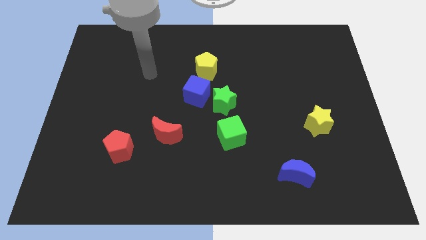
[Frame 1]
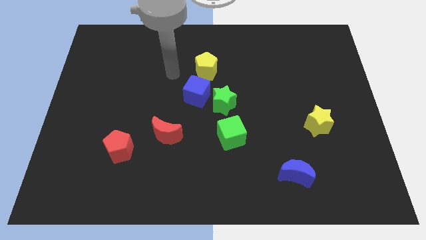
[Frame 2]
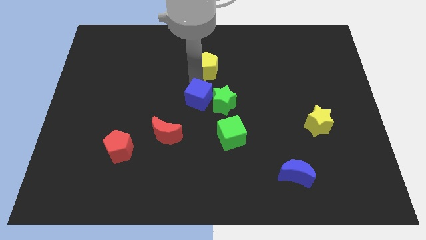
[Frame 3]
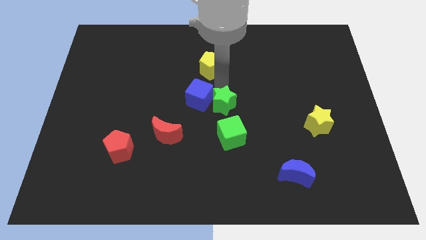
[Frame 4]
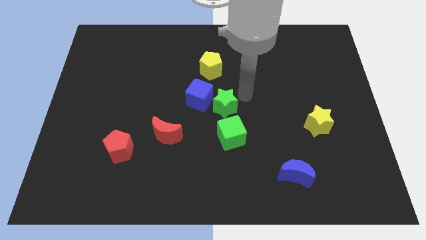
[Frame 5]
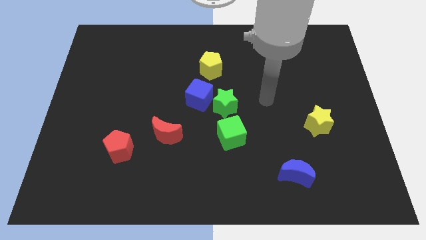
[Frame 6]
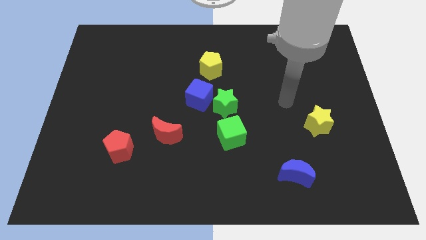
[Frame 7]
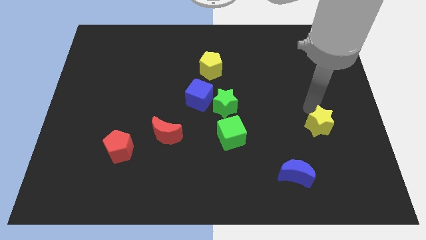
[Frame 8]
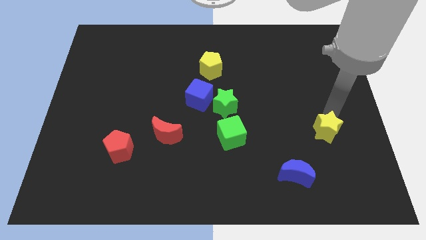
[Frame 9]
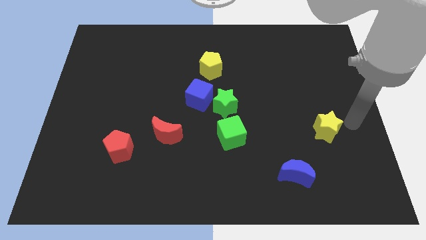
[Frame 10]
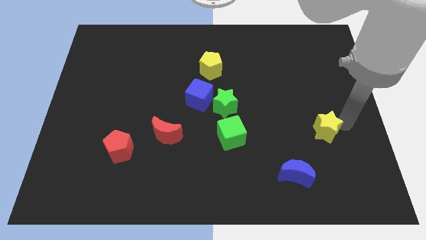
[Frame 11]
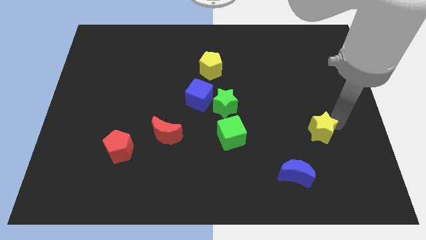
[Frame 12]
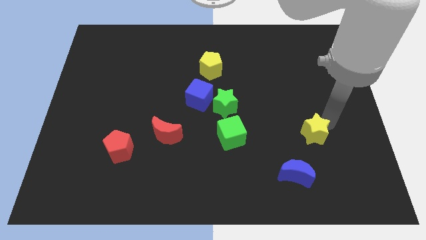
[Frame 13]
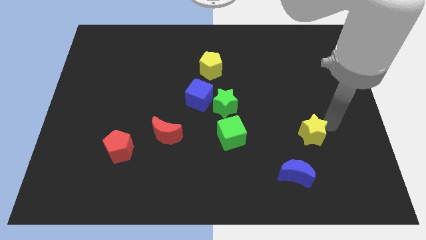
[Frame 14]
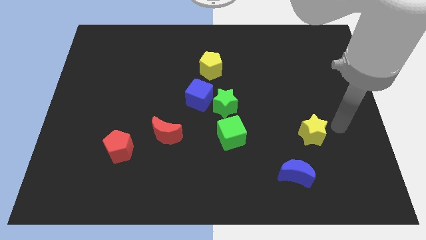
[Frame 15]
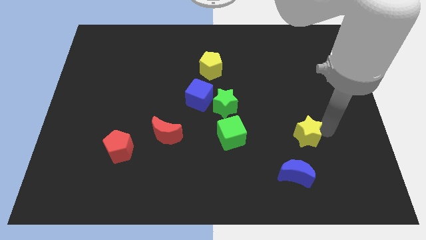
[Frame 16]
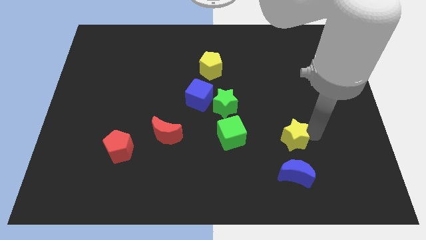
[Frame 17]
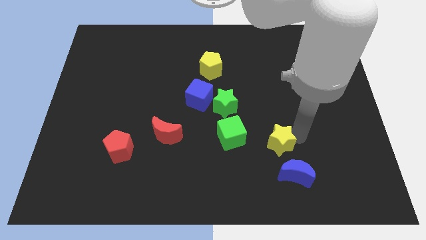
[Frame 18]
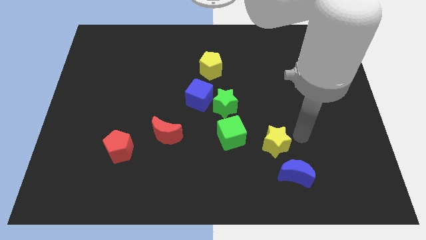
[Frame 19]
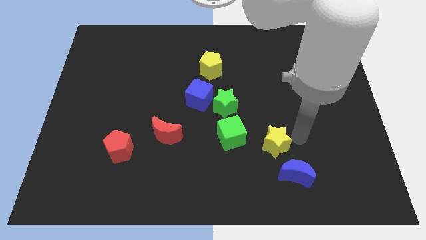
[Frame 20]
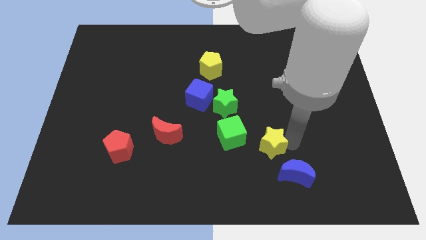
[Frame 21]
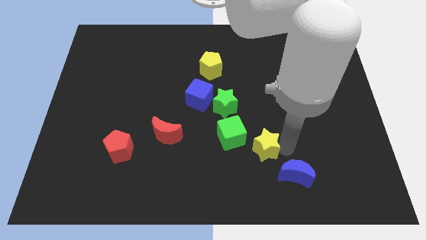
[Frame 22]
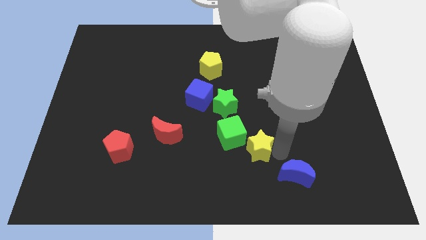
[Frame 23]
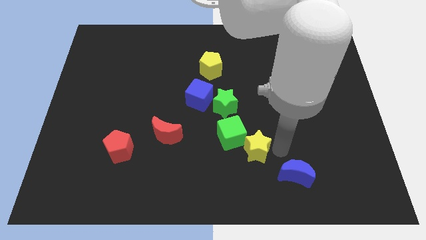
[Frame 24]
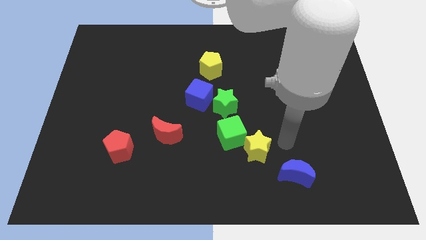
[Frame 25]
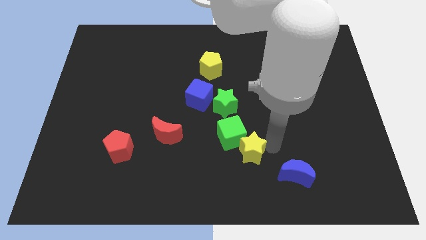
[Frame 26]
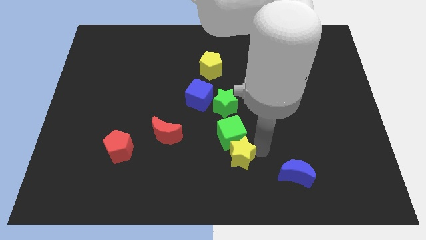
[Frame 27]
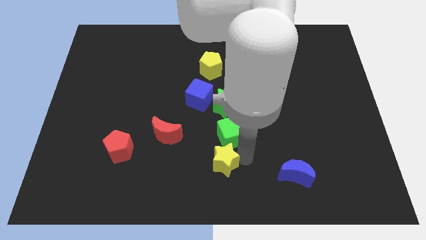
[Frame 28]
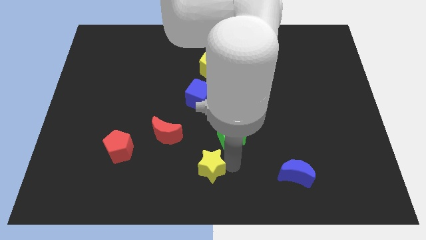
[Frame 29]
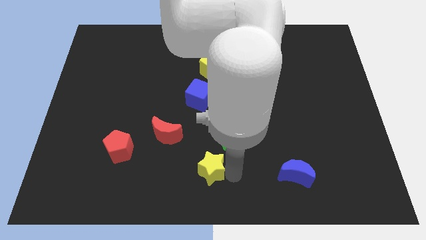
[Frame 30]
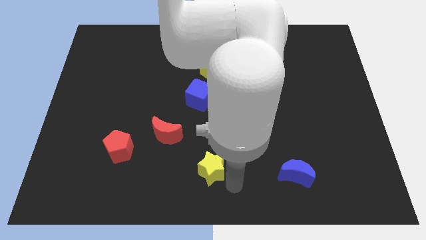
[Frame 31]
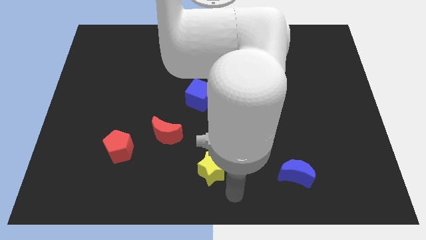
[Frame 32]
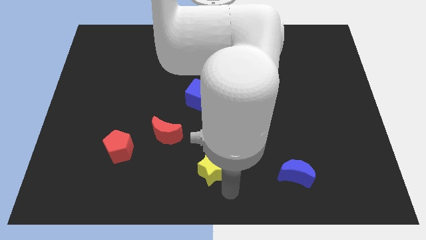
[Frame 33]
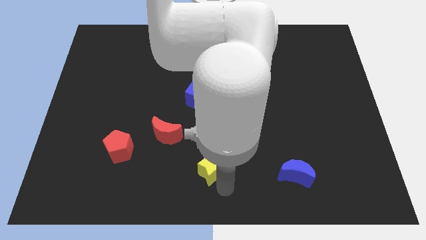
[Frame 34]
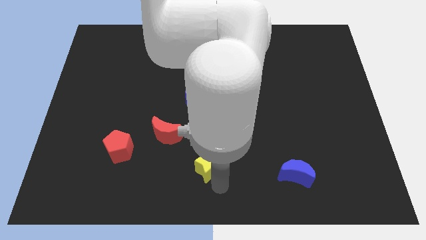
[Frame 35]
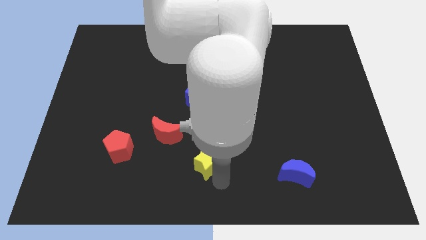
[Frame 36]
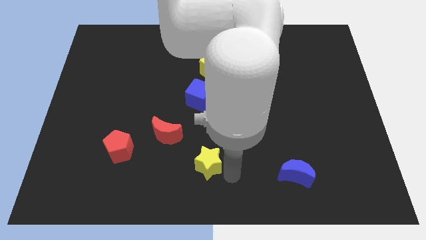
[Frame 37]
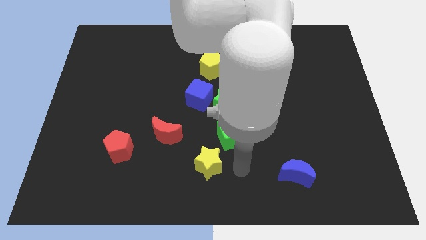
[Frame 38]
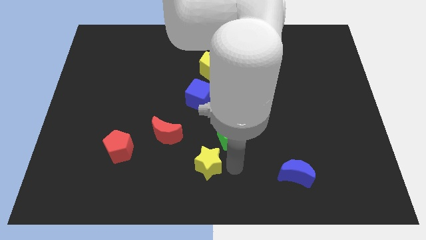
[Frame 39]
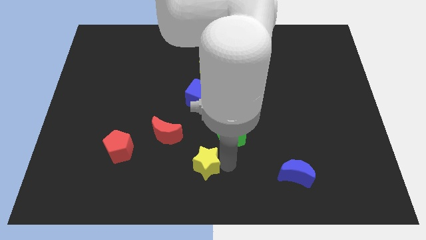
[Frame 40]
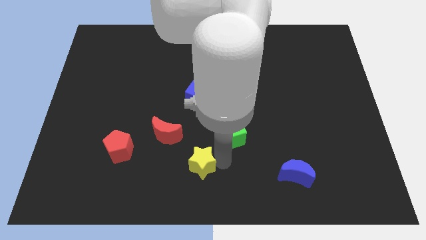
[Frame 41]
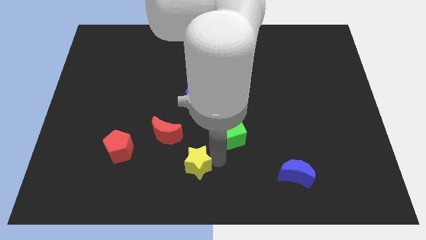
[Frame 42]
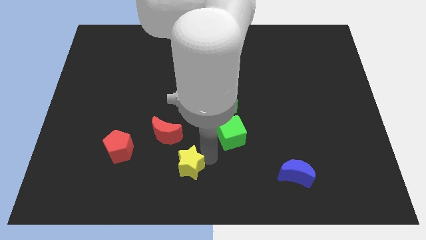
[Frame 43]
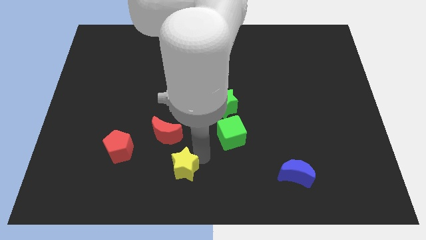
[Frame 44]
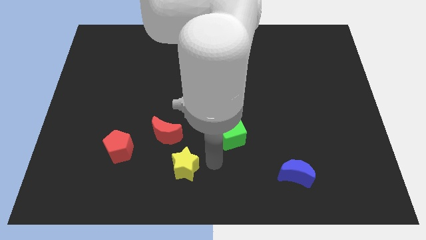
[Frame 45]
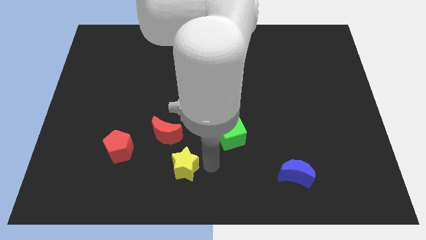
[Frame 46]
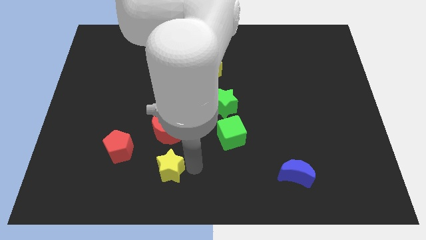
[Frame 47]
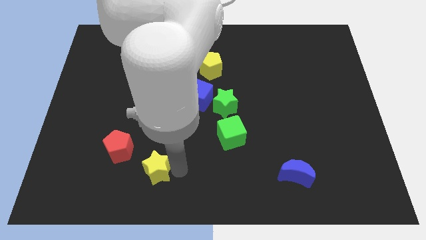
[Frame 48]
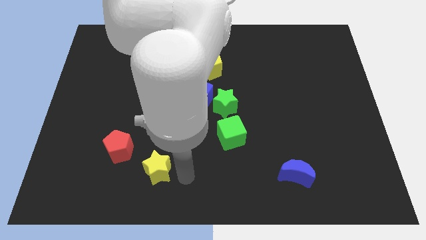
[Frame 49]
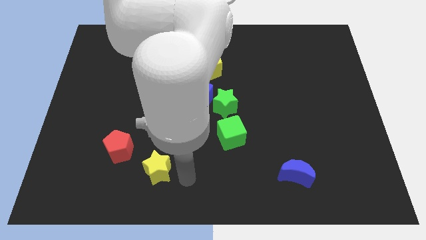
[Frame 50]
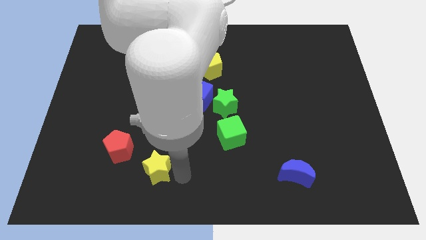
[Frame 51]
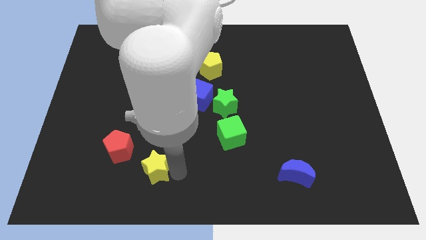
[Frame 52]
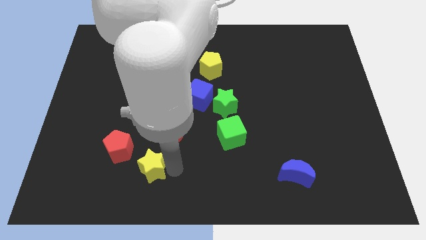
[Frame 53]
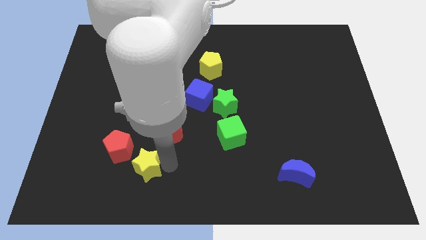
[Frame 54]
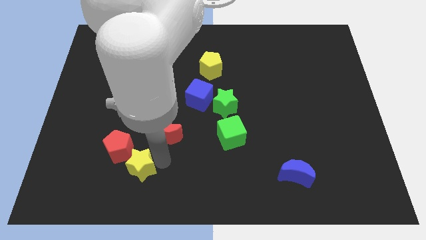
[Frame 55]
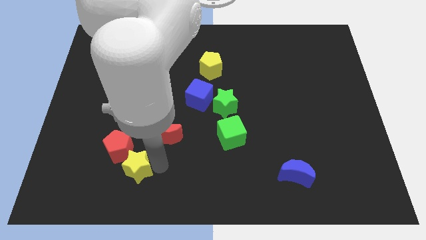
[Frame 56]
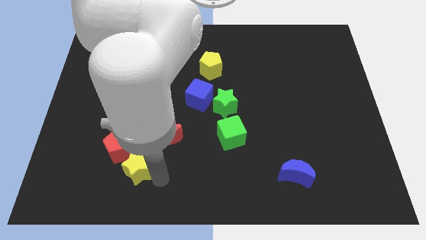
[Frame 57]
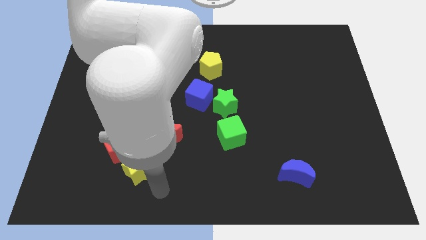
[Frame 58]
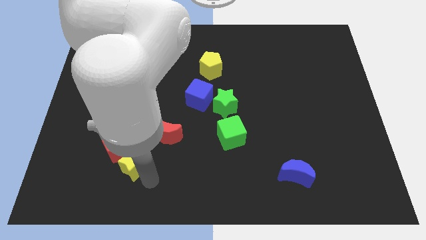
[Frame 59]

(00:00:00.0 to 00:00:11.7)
move the yellow star to the red pentagon

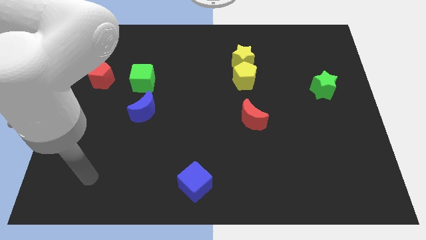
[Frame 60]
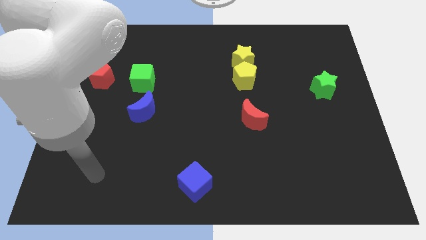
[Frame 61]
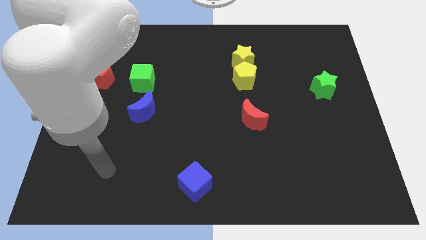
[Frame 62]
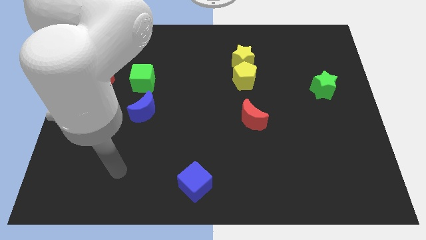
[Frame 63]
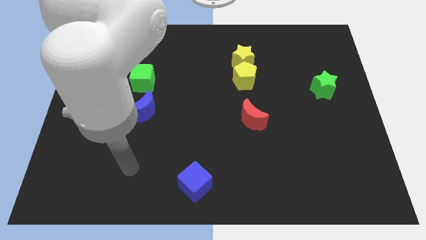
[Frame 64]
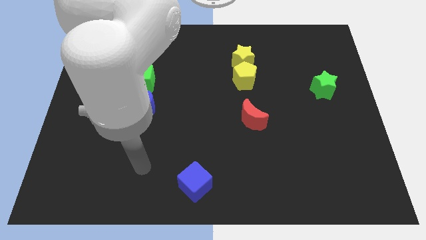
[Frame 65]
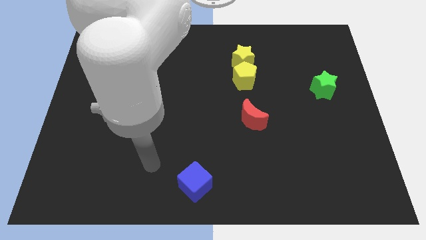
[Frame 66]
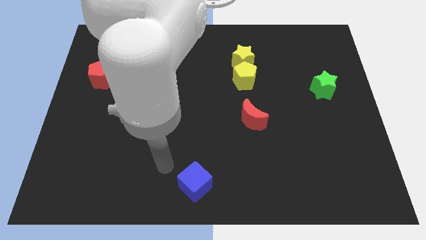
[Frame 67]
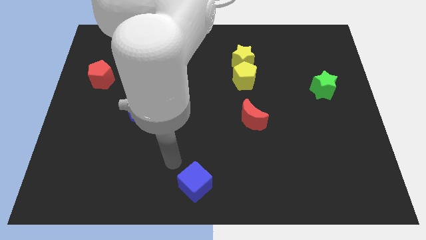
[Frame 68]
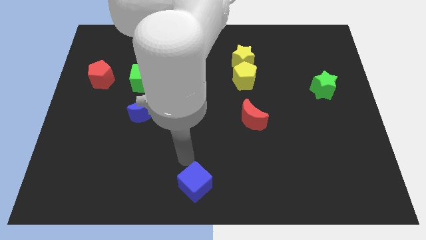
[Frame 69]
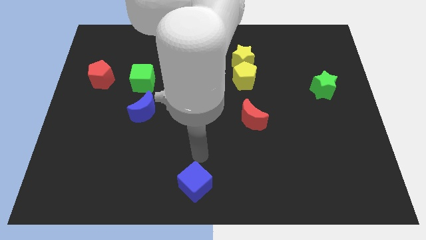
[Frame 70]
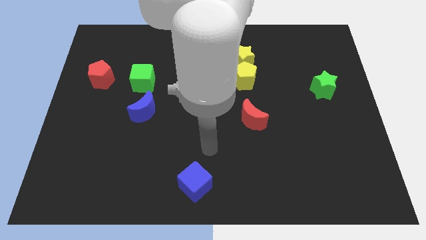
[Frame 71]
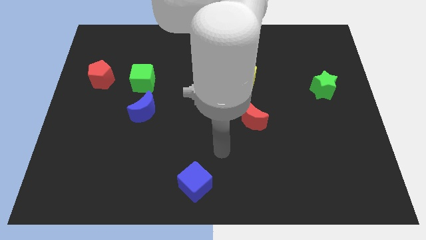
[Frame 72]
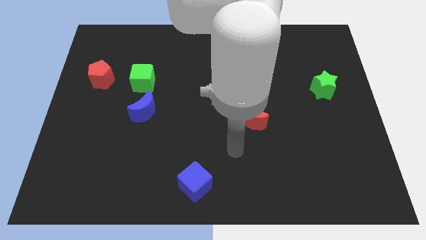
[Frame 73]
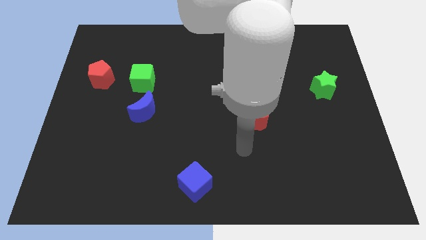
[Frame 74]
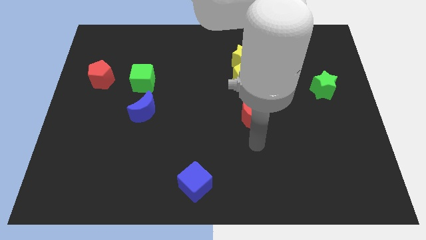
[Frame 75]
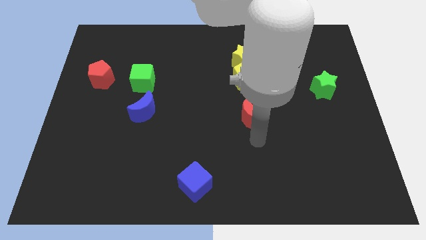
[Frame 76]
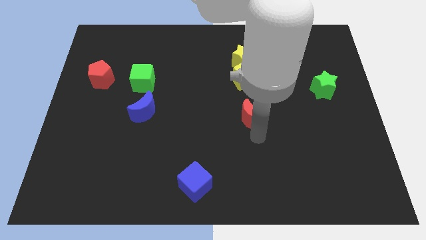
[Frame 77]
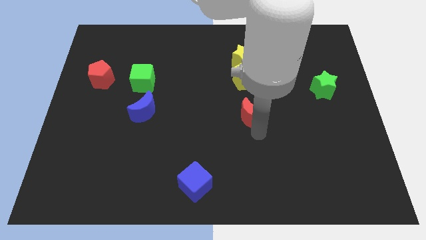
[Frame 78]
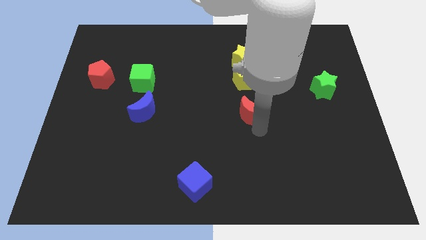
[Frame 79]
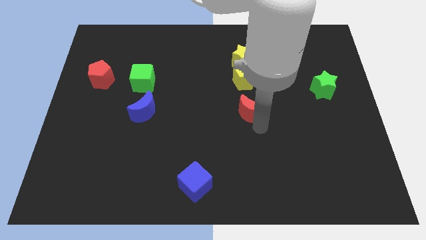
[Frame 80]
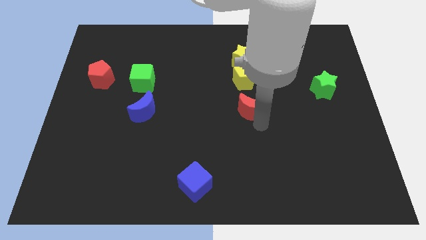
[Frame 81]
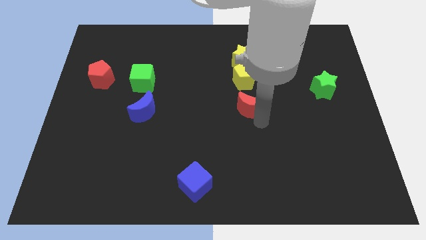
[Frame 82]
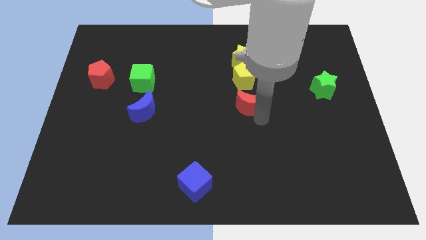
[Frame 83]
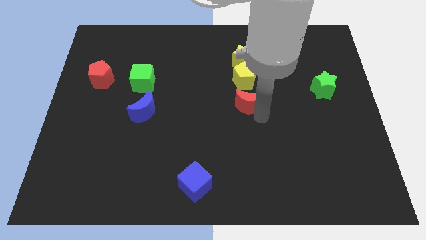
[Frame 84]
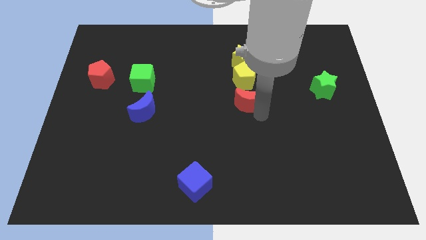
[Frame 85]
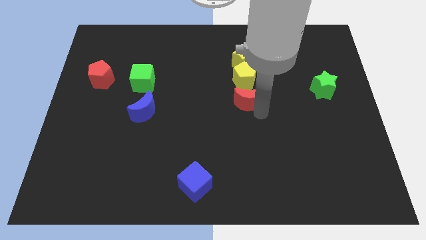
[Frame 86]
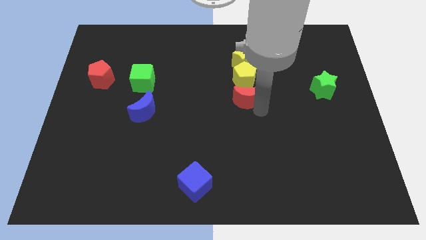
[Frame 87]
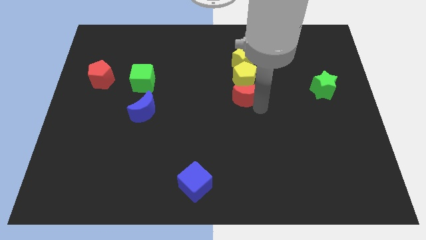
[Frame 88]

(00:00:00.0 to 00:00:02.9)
move the red moon next to the yellow pentagon
